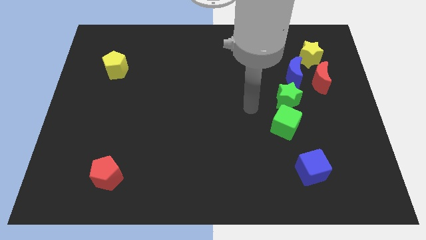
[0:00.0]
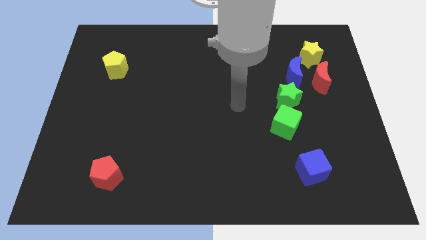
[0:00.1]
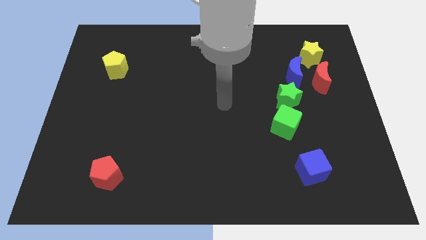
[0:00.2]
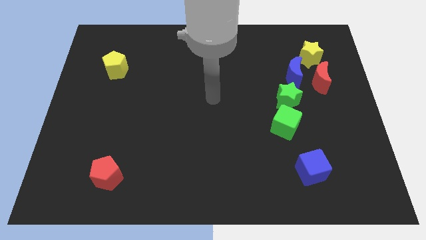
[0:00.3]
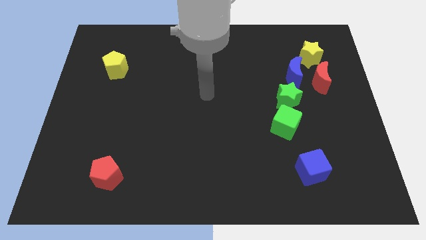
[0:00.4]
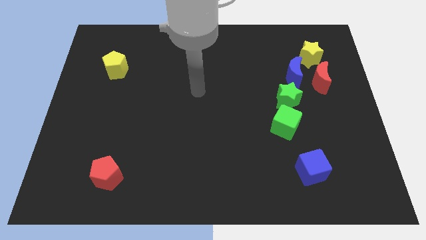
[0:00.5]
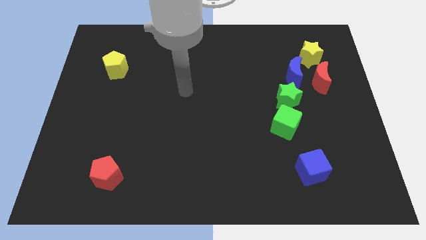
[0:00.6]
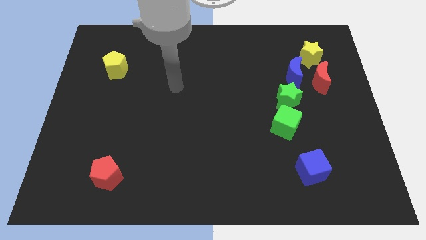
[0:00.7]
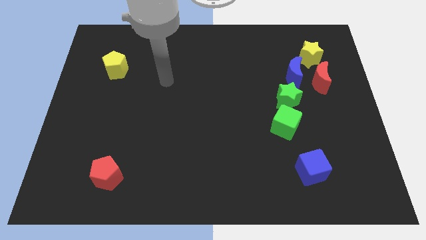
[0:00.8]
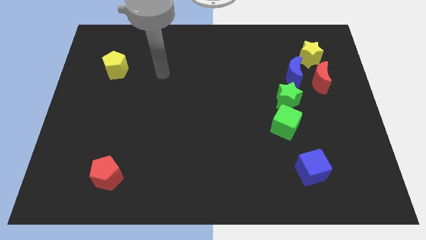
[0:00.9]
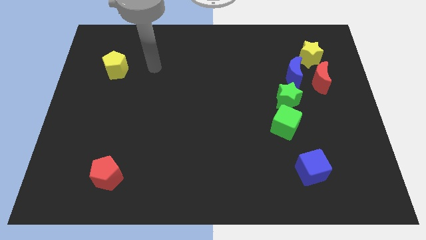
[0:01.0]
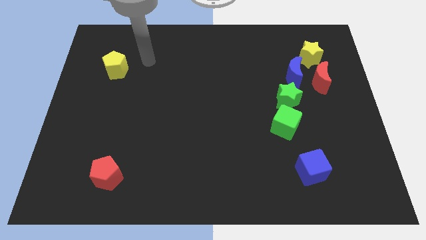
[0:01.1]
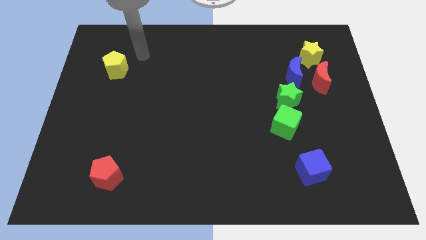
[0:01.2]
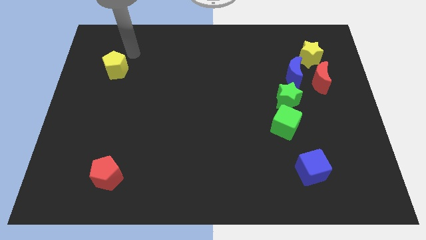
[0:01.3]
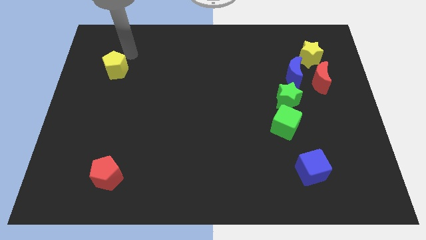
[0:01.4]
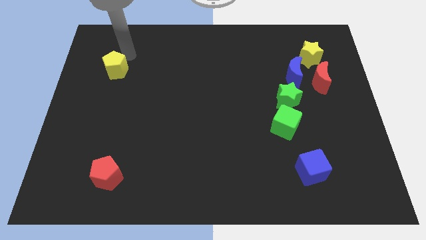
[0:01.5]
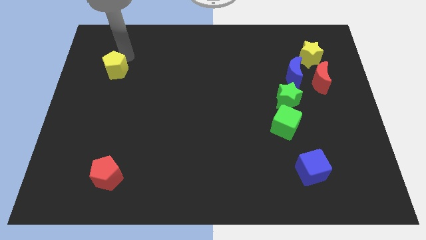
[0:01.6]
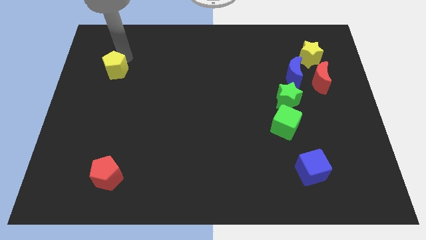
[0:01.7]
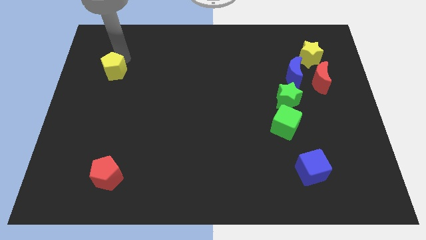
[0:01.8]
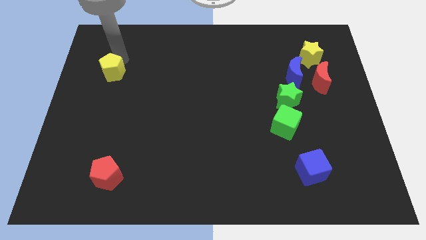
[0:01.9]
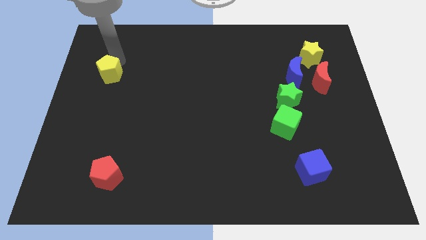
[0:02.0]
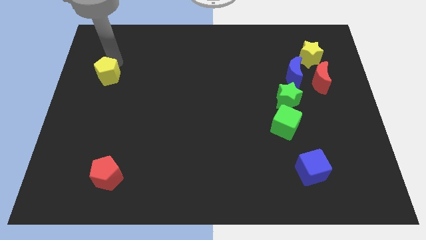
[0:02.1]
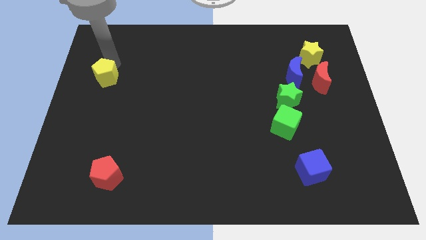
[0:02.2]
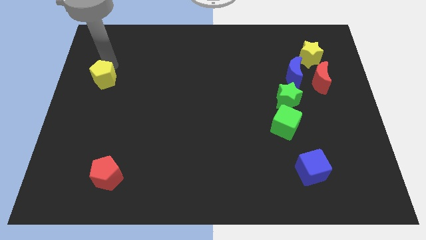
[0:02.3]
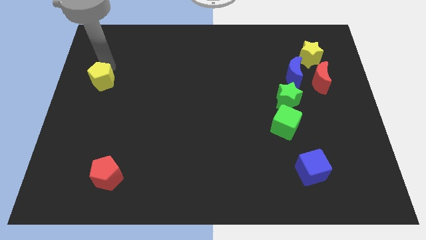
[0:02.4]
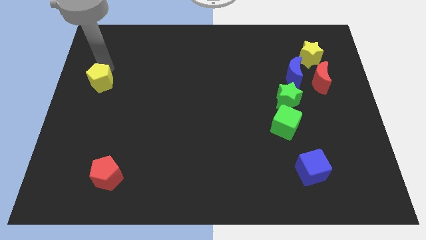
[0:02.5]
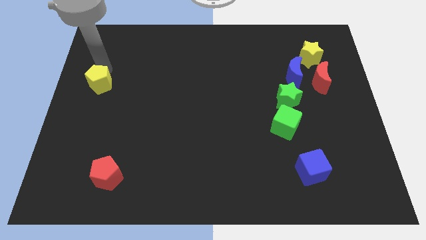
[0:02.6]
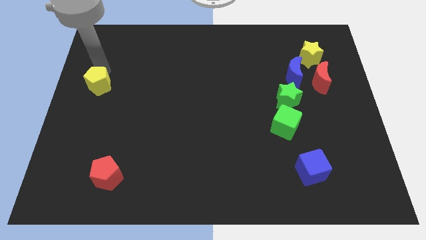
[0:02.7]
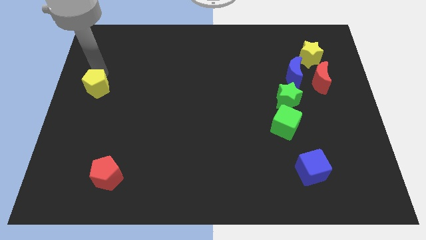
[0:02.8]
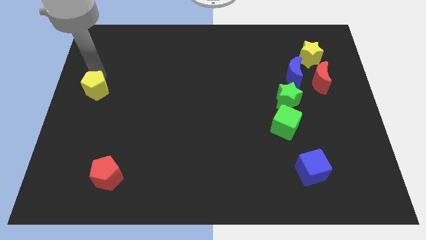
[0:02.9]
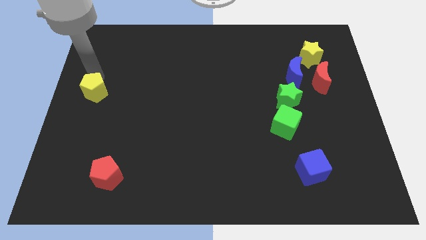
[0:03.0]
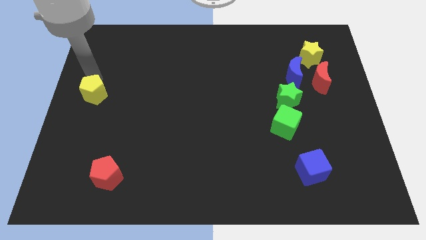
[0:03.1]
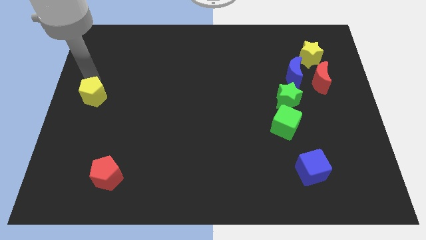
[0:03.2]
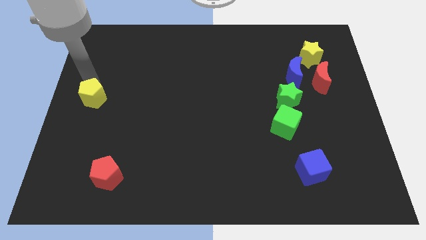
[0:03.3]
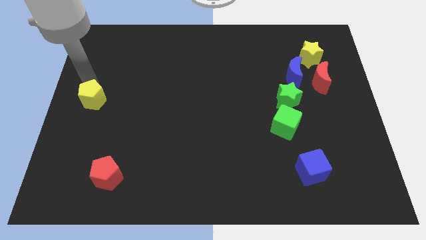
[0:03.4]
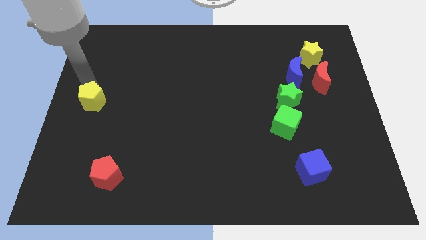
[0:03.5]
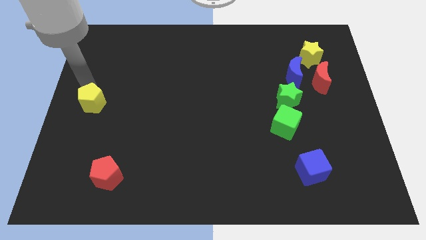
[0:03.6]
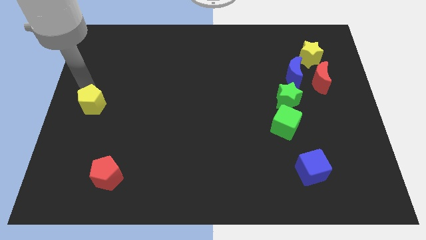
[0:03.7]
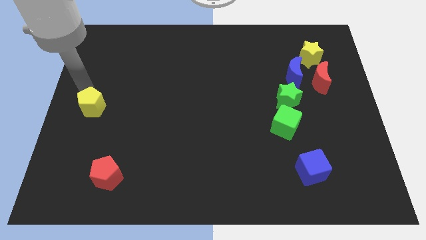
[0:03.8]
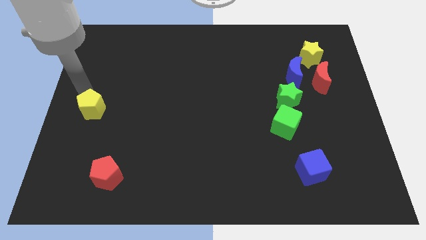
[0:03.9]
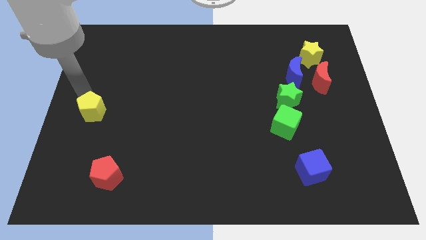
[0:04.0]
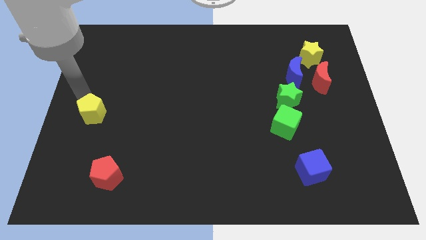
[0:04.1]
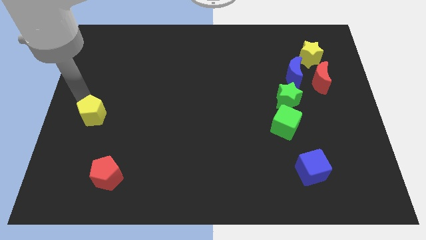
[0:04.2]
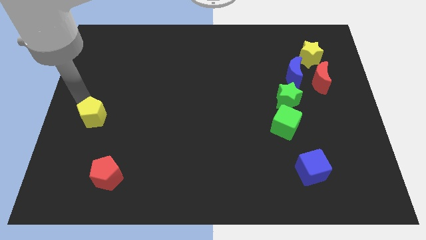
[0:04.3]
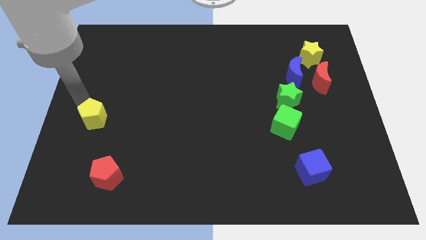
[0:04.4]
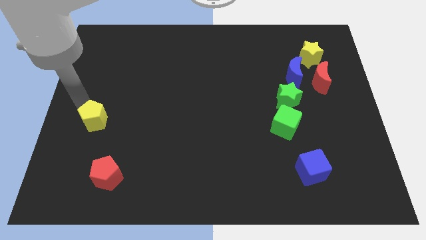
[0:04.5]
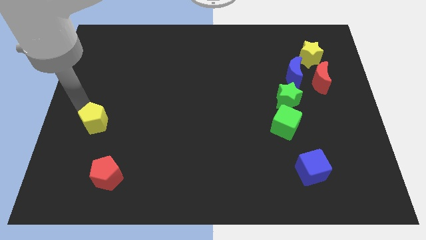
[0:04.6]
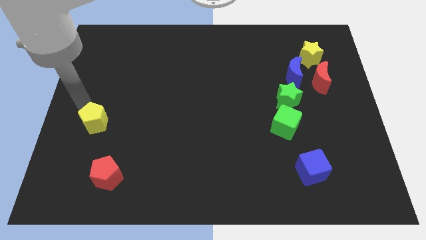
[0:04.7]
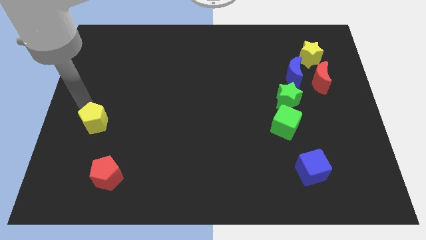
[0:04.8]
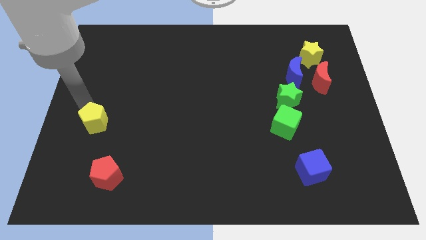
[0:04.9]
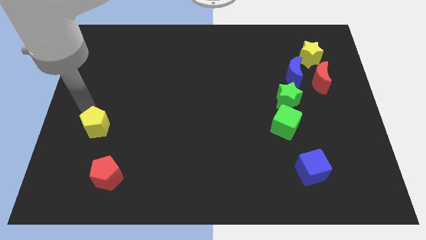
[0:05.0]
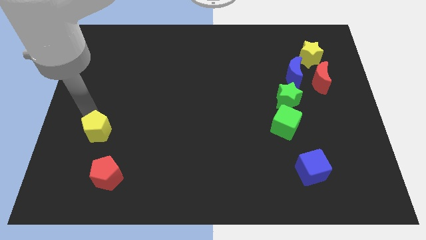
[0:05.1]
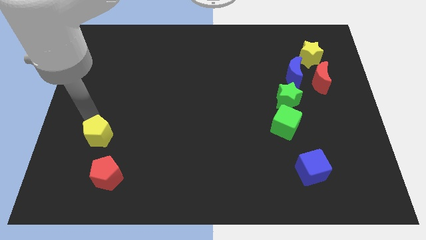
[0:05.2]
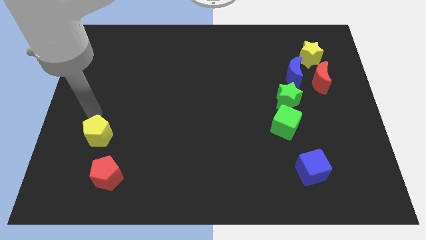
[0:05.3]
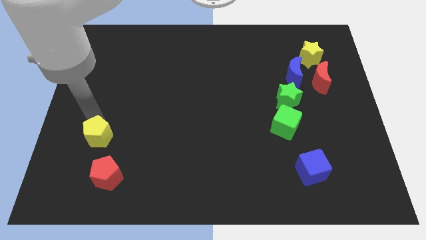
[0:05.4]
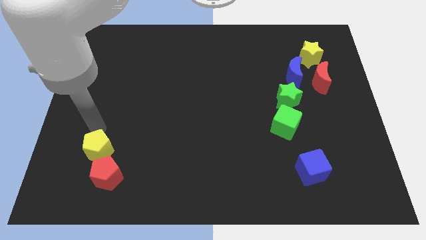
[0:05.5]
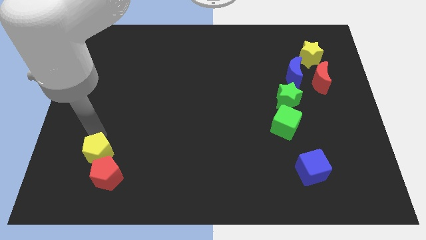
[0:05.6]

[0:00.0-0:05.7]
push the yellow pentagon close to the red pentagon

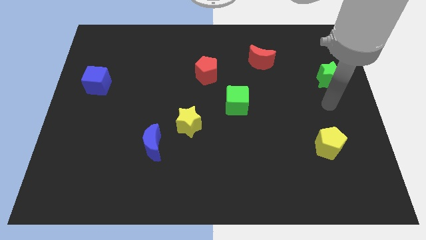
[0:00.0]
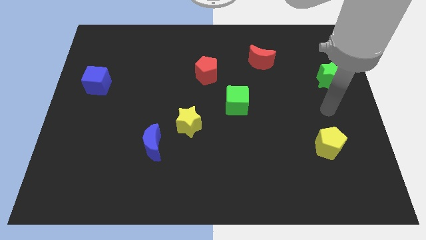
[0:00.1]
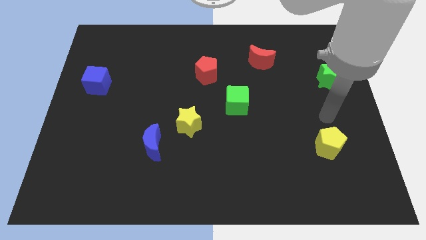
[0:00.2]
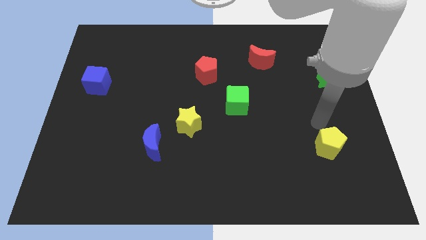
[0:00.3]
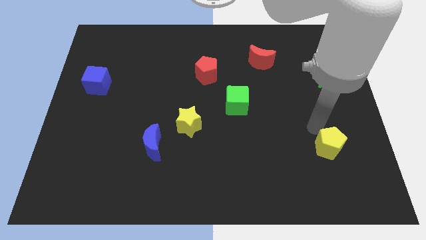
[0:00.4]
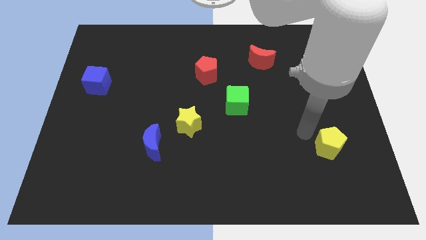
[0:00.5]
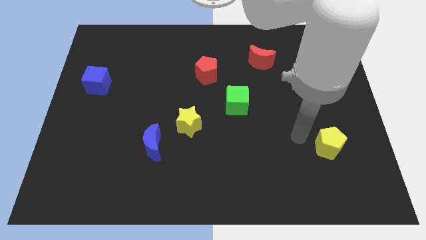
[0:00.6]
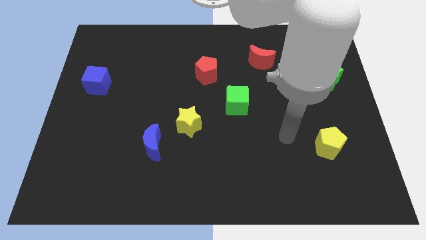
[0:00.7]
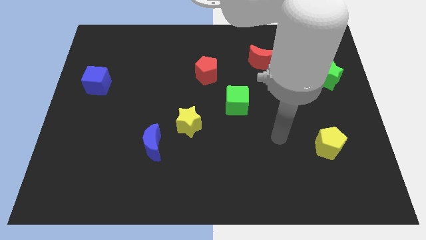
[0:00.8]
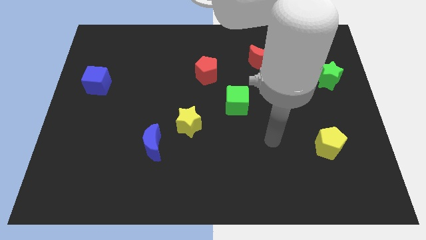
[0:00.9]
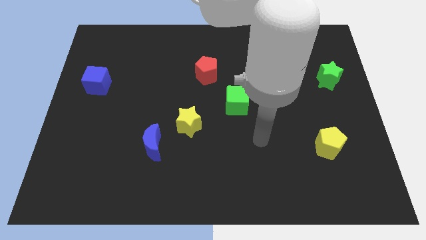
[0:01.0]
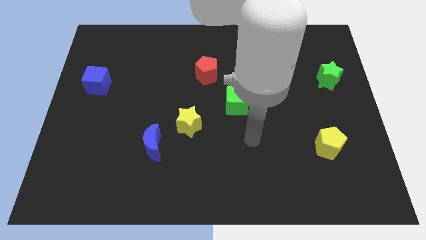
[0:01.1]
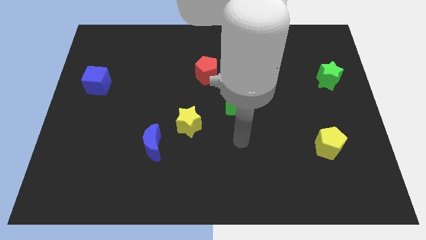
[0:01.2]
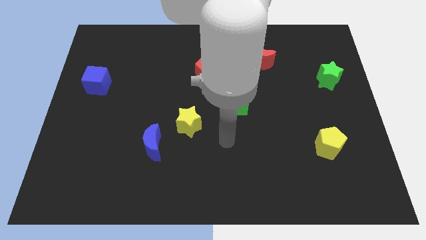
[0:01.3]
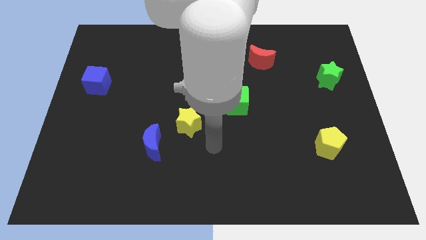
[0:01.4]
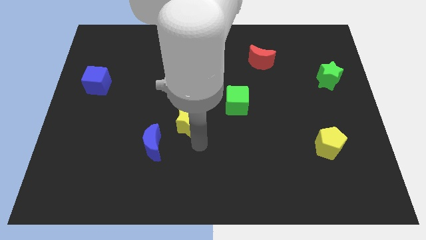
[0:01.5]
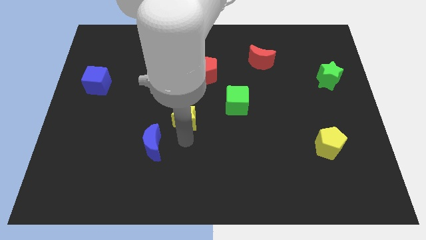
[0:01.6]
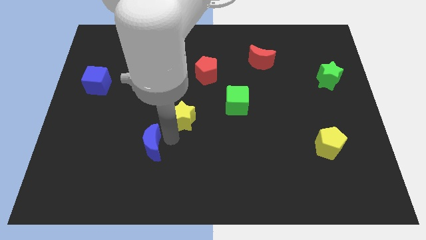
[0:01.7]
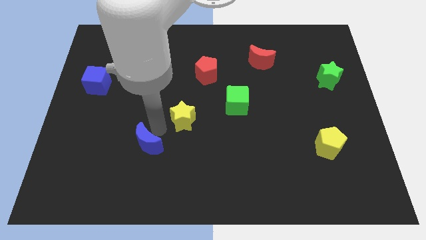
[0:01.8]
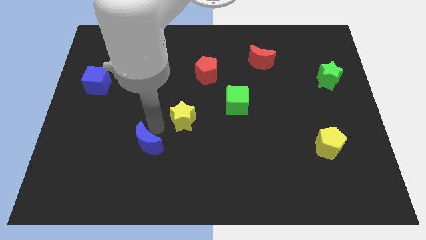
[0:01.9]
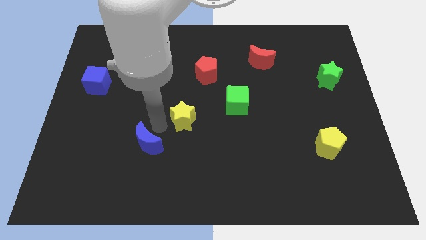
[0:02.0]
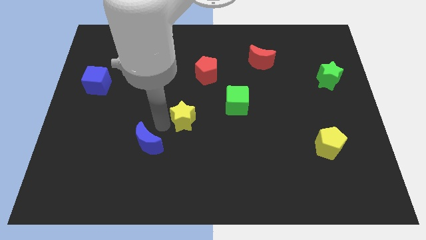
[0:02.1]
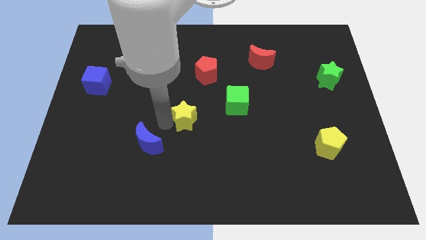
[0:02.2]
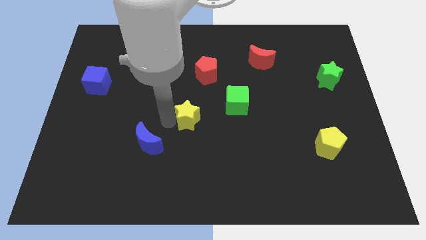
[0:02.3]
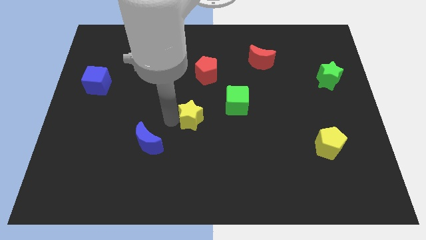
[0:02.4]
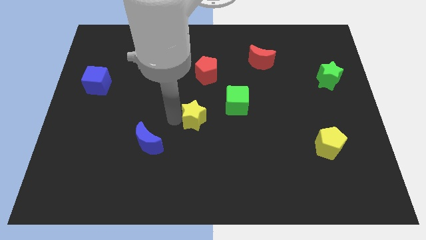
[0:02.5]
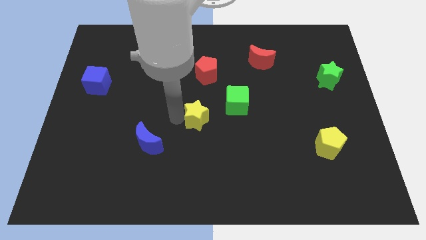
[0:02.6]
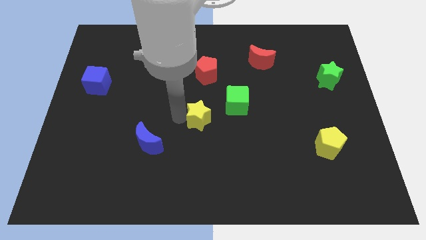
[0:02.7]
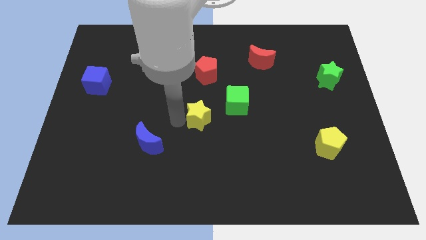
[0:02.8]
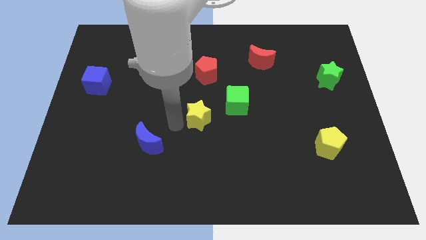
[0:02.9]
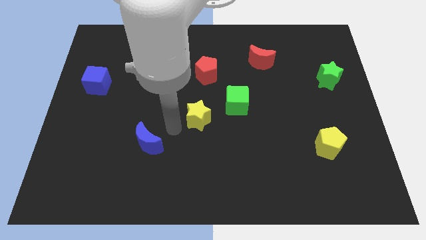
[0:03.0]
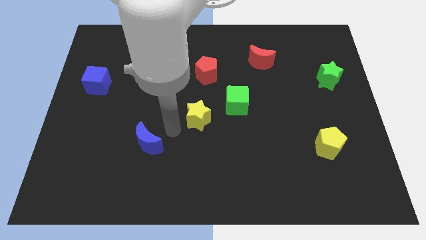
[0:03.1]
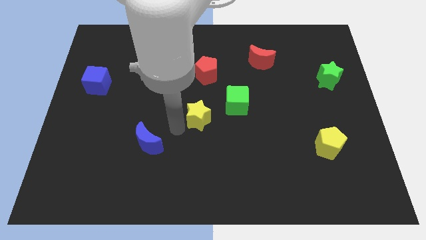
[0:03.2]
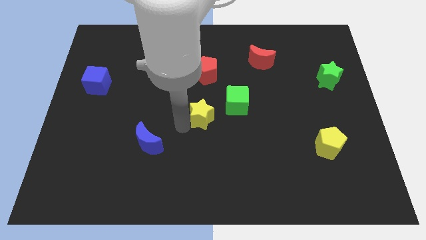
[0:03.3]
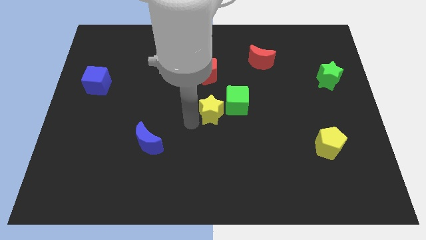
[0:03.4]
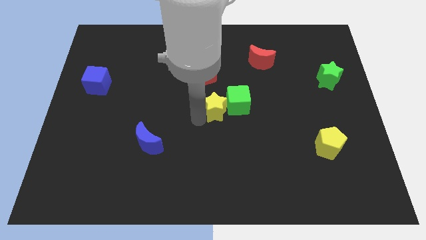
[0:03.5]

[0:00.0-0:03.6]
move the yellow star towards the green cube
